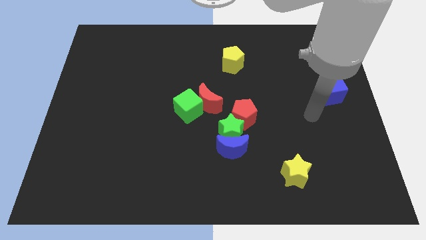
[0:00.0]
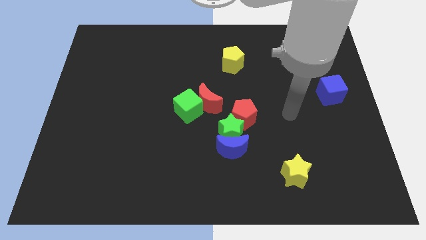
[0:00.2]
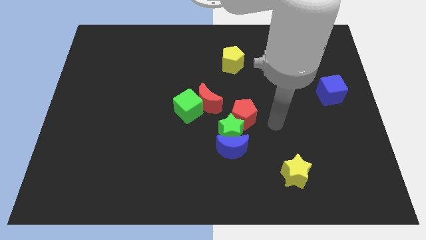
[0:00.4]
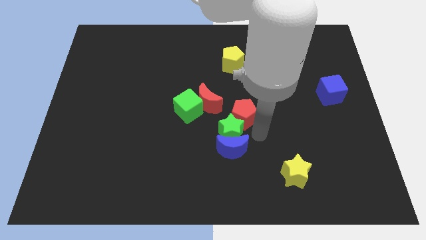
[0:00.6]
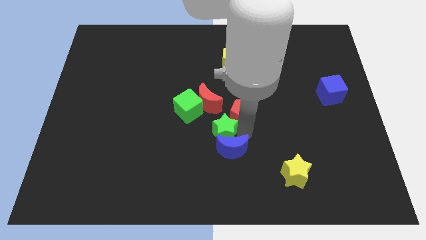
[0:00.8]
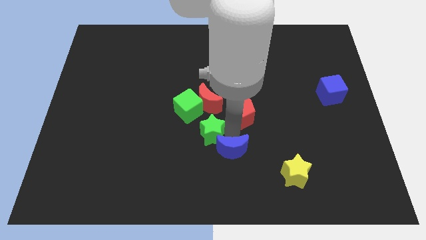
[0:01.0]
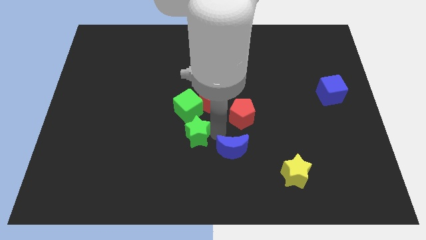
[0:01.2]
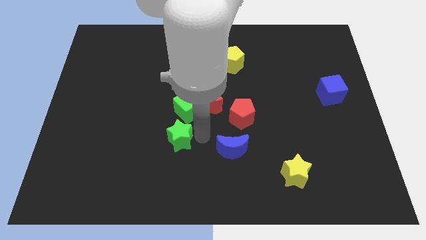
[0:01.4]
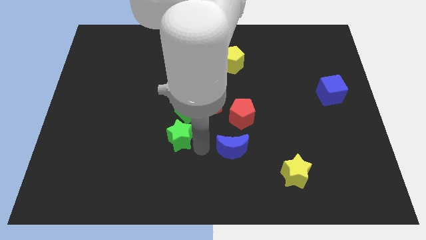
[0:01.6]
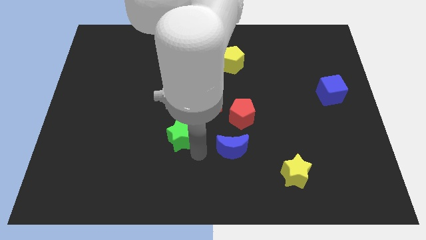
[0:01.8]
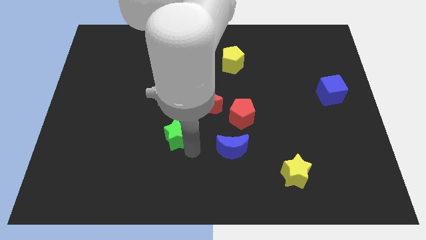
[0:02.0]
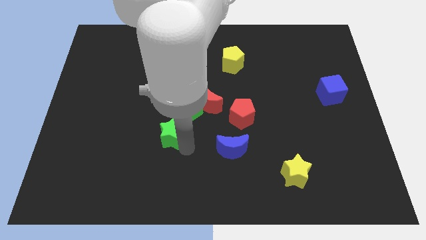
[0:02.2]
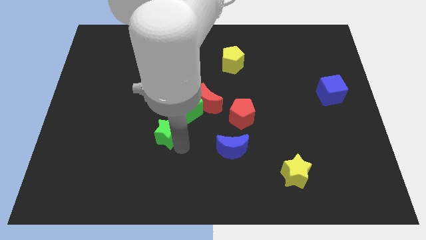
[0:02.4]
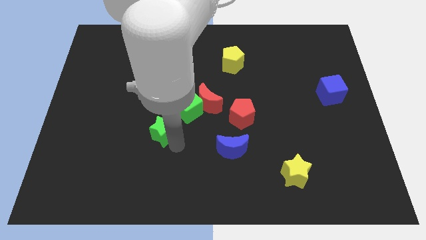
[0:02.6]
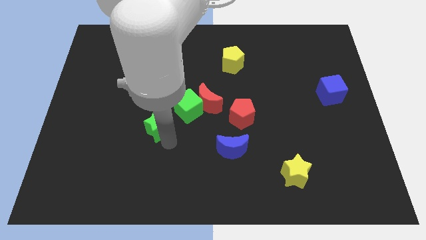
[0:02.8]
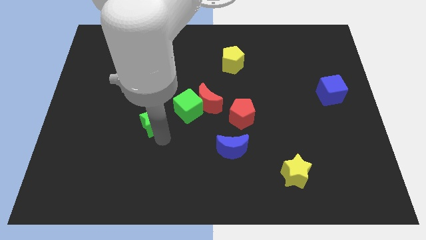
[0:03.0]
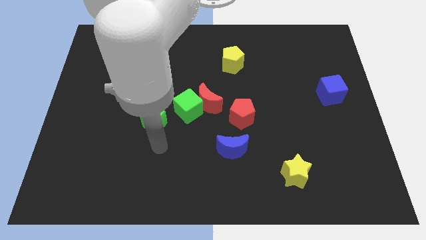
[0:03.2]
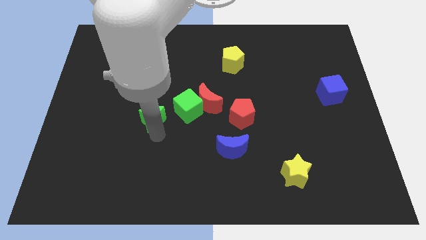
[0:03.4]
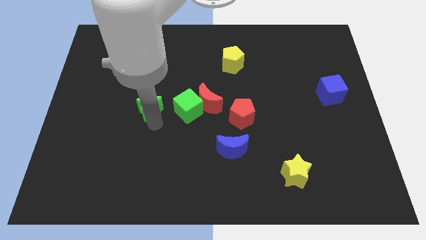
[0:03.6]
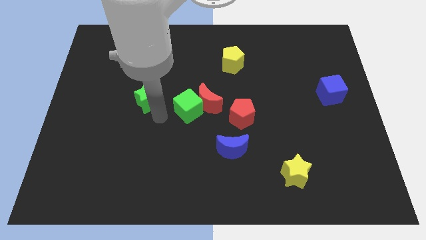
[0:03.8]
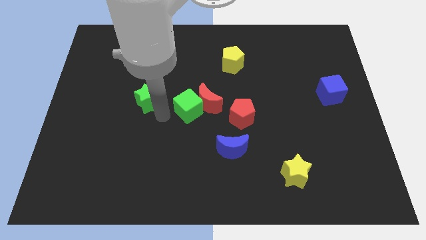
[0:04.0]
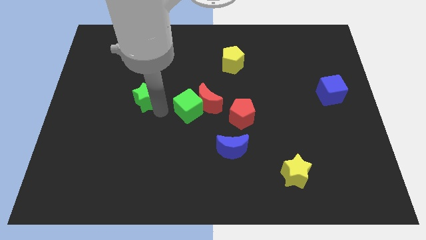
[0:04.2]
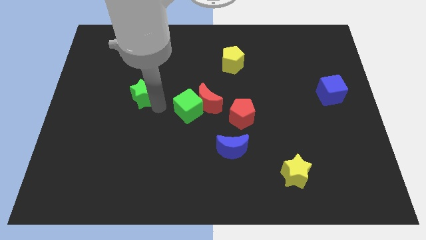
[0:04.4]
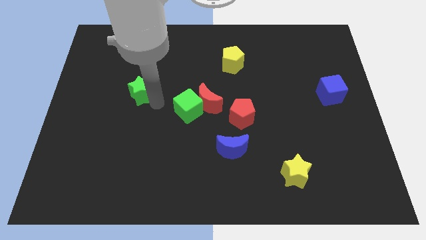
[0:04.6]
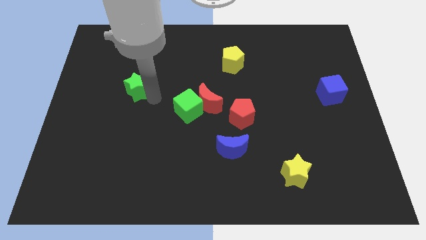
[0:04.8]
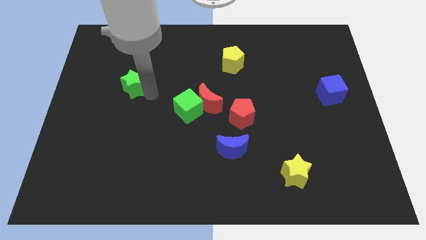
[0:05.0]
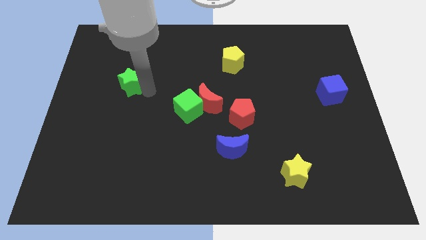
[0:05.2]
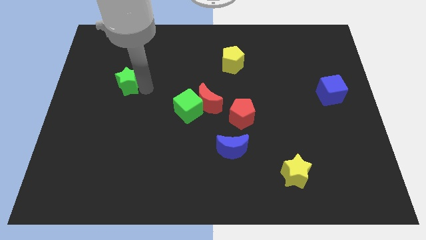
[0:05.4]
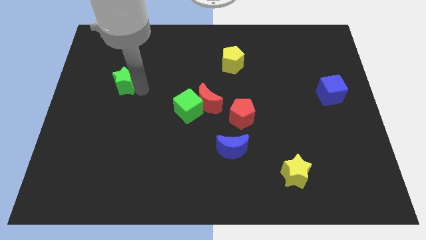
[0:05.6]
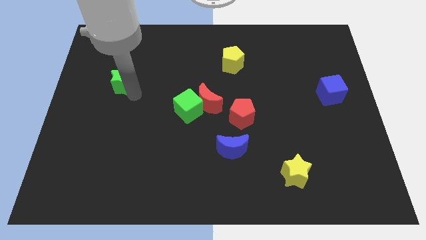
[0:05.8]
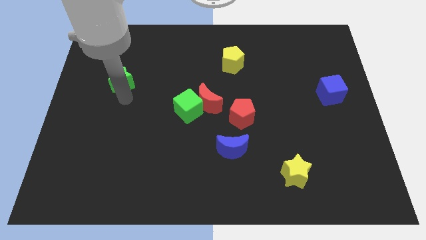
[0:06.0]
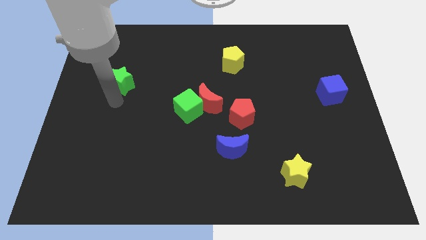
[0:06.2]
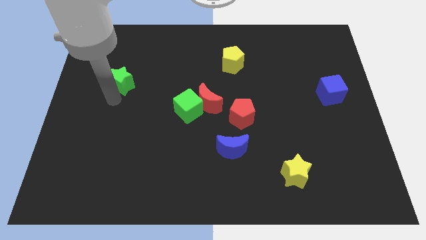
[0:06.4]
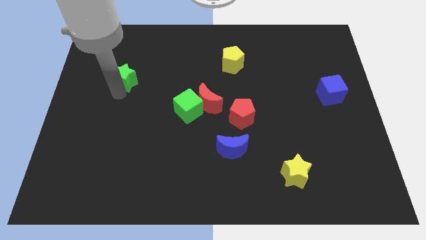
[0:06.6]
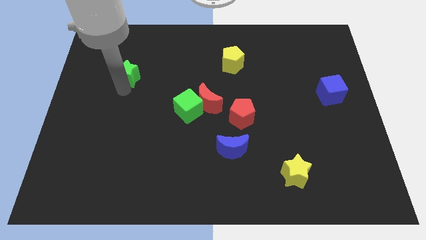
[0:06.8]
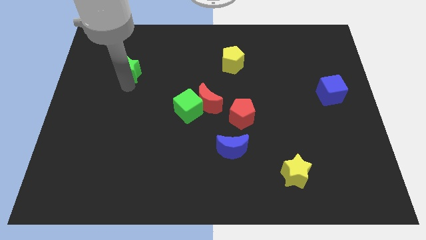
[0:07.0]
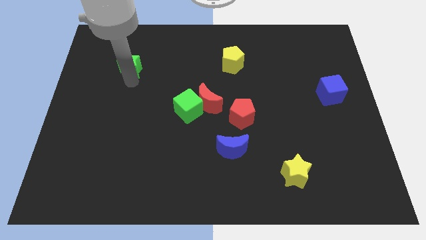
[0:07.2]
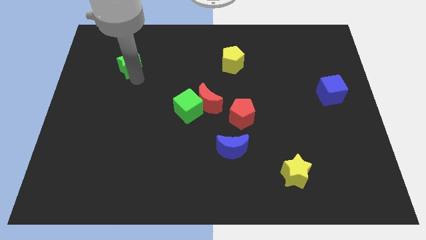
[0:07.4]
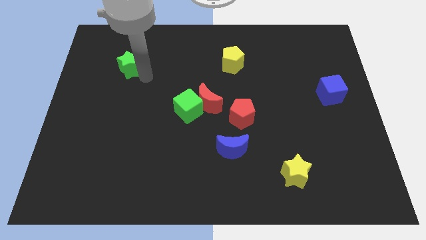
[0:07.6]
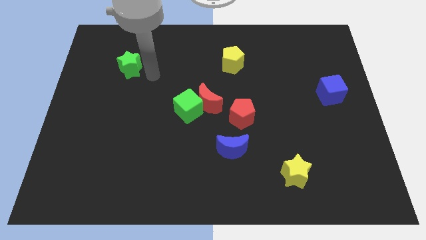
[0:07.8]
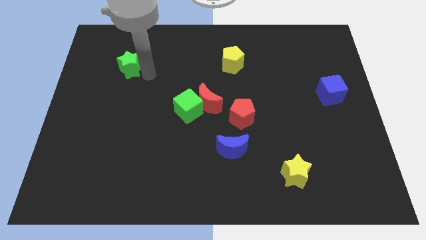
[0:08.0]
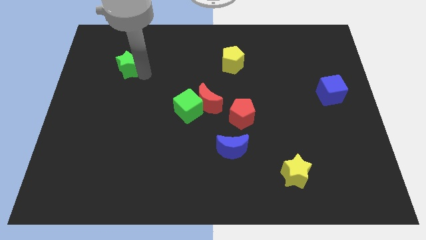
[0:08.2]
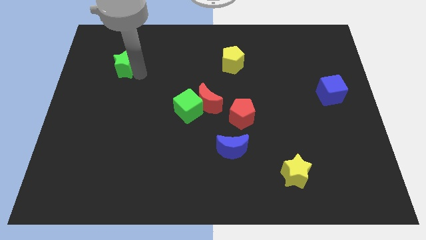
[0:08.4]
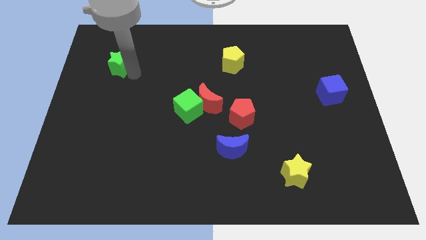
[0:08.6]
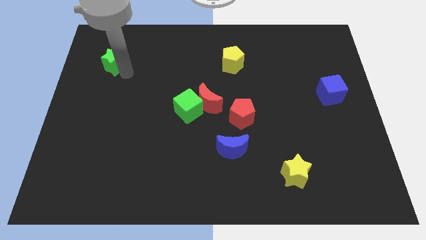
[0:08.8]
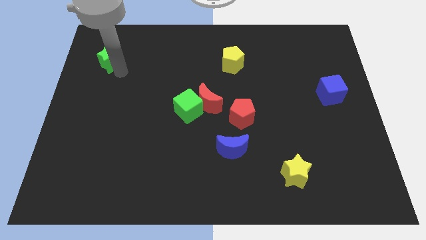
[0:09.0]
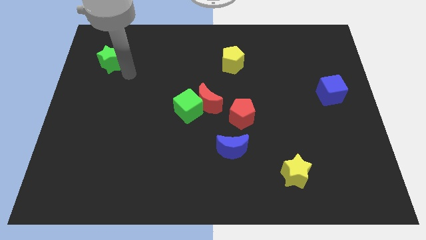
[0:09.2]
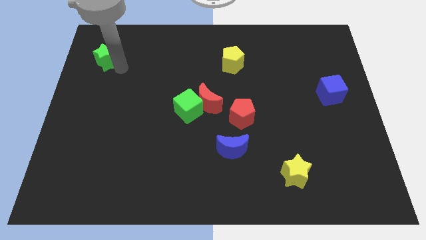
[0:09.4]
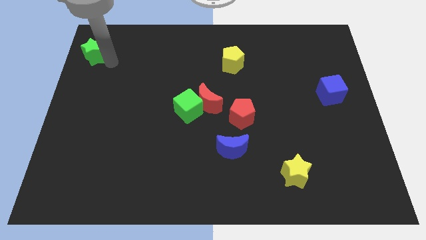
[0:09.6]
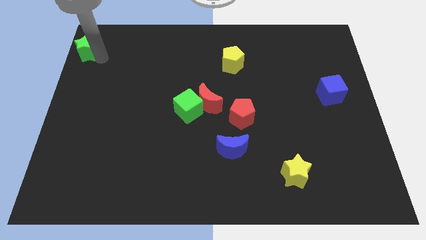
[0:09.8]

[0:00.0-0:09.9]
slide the green star to the top left of the board
